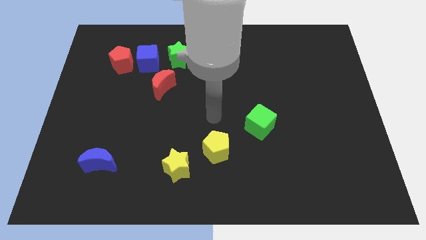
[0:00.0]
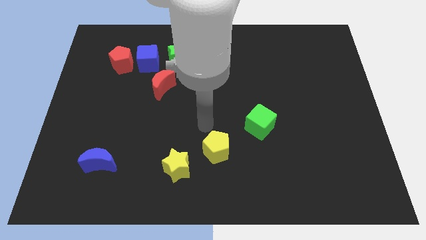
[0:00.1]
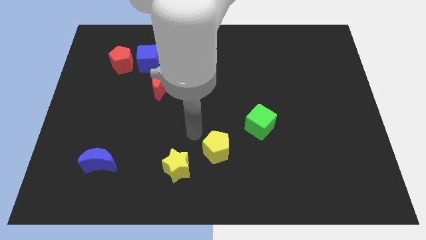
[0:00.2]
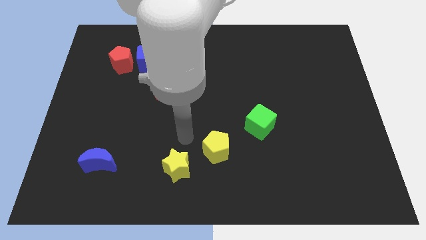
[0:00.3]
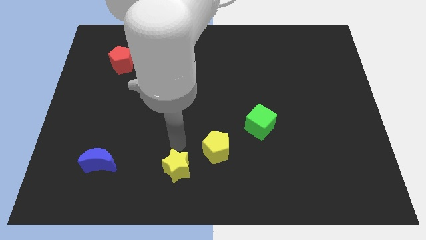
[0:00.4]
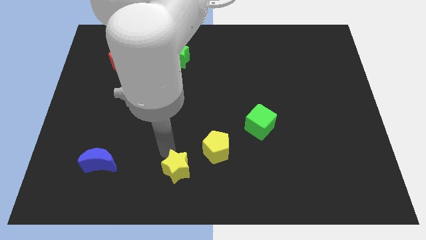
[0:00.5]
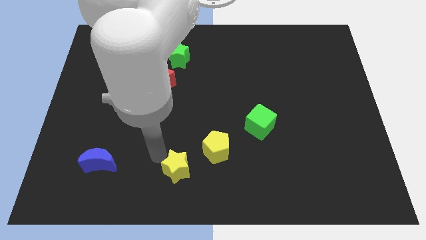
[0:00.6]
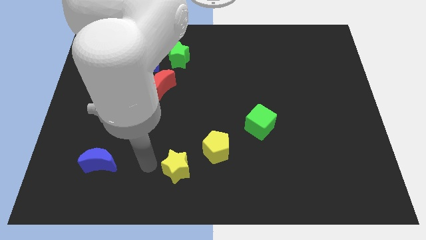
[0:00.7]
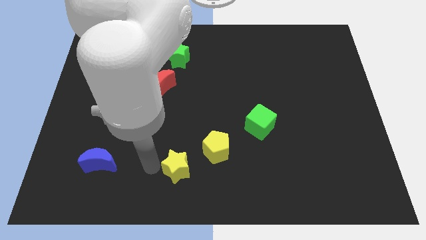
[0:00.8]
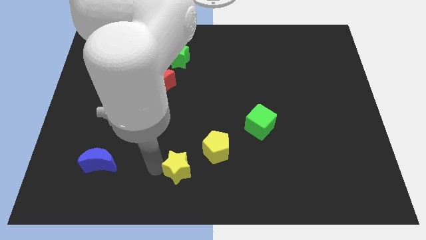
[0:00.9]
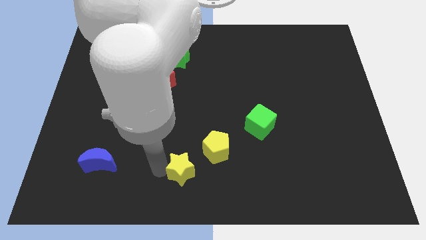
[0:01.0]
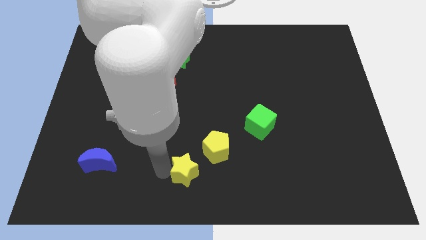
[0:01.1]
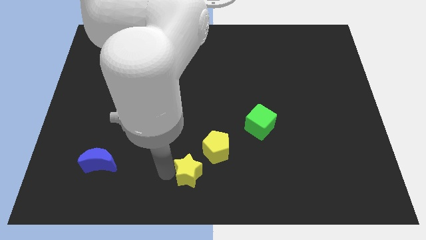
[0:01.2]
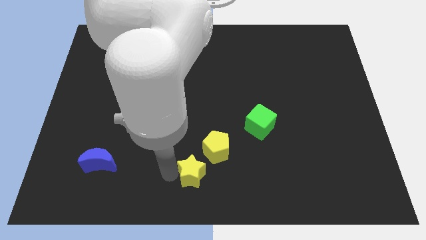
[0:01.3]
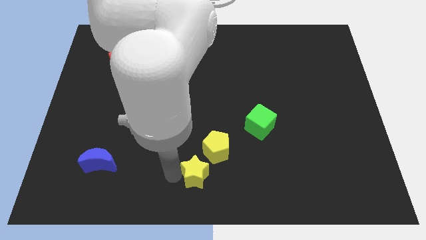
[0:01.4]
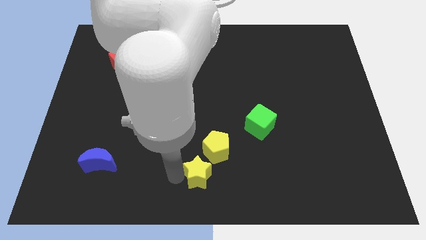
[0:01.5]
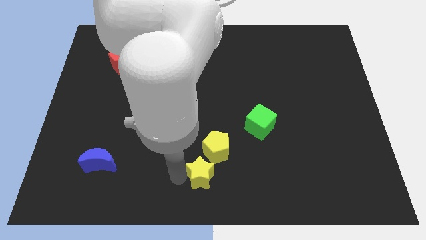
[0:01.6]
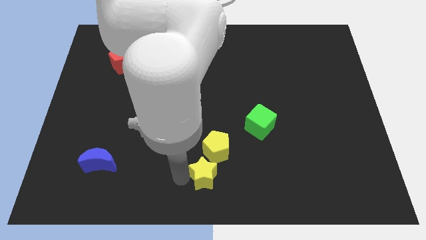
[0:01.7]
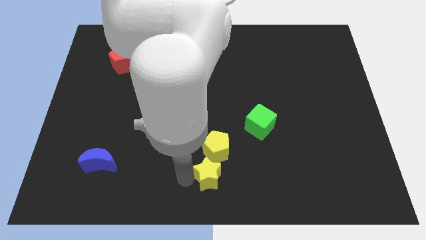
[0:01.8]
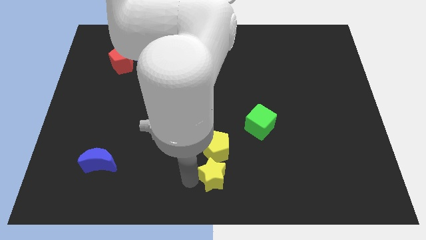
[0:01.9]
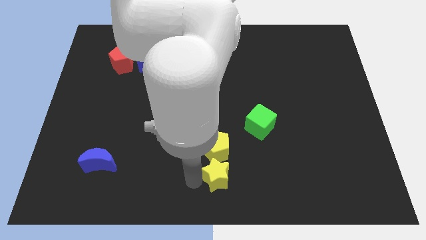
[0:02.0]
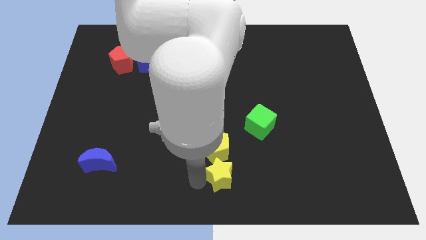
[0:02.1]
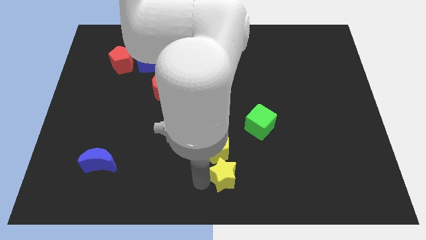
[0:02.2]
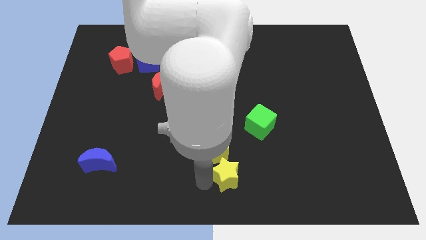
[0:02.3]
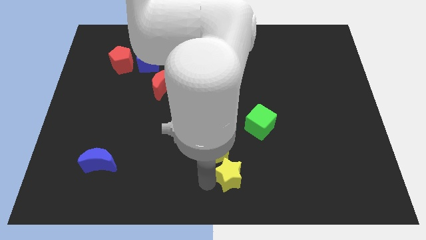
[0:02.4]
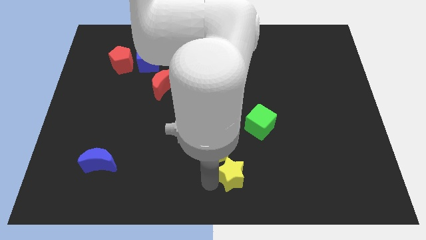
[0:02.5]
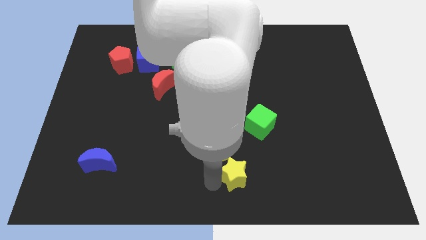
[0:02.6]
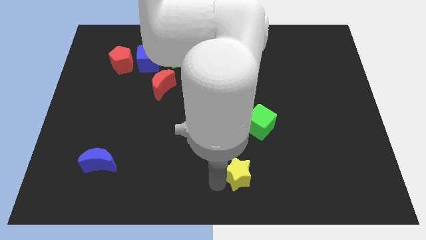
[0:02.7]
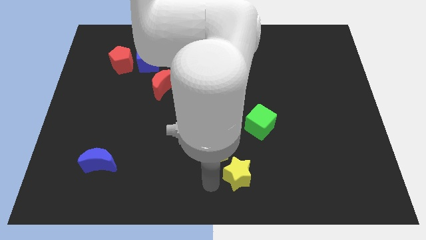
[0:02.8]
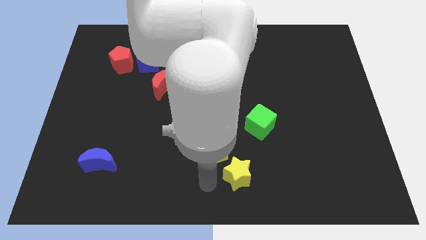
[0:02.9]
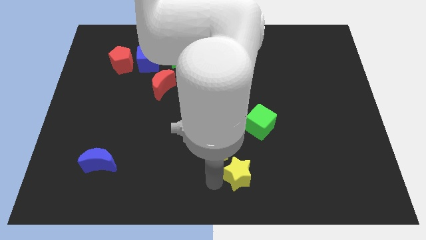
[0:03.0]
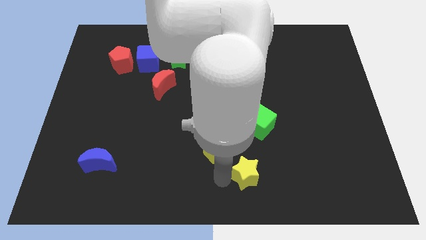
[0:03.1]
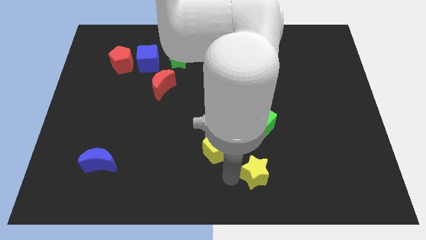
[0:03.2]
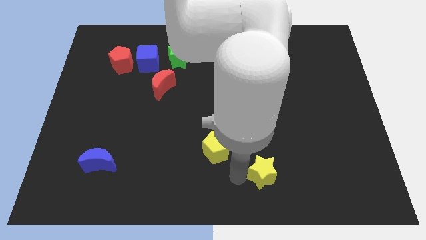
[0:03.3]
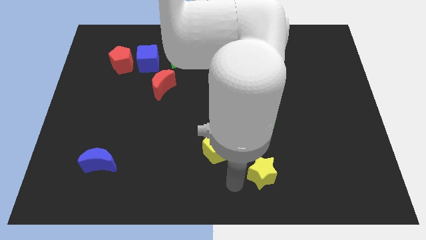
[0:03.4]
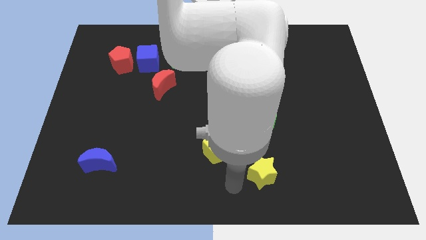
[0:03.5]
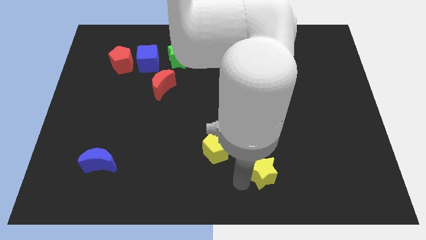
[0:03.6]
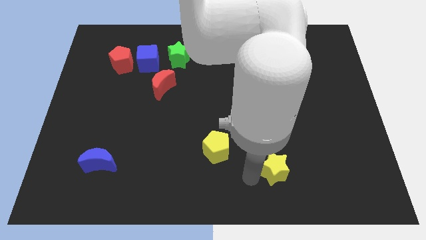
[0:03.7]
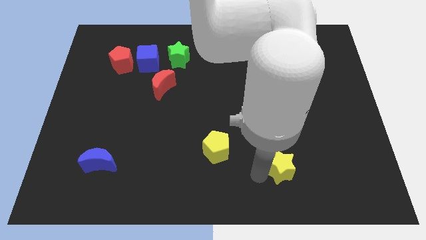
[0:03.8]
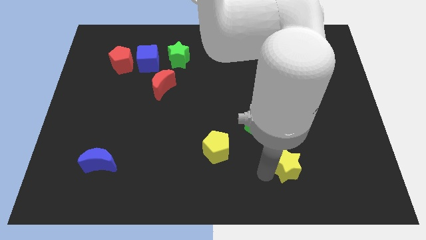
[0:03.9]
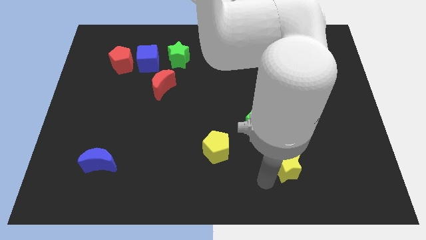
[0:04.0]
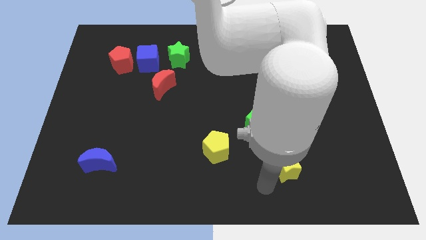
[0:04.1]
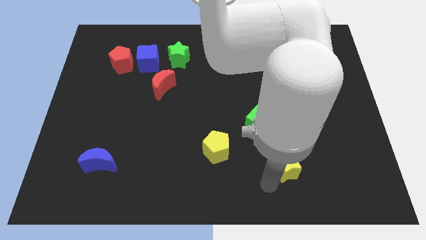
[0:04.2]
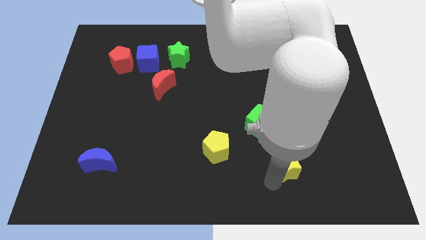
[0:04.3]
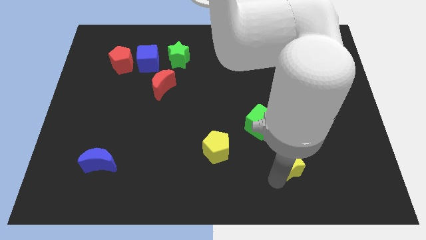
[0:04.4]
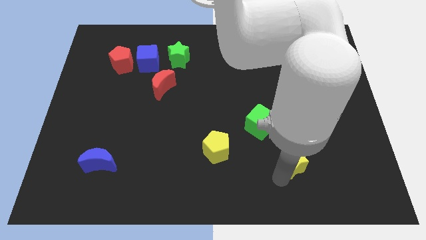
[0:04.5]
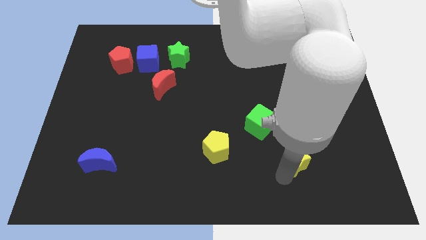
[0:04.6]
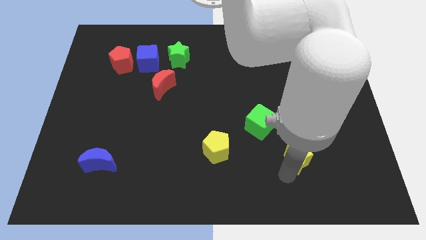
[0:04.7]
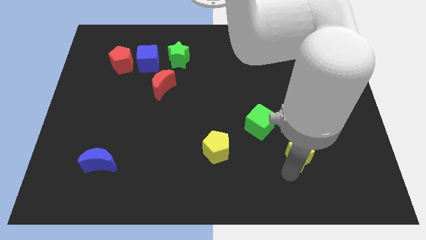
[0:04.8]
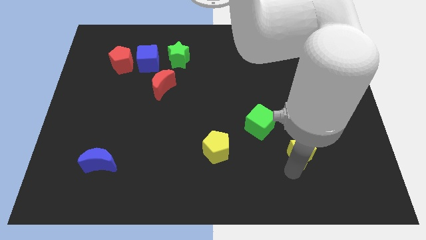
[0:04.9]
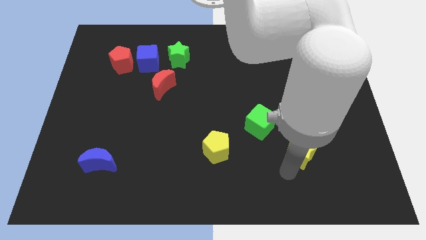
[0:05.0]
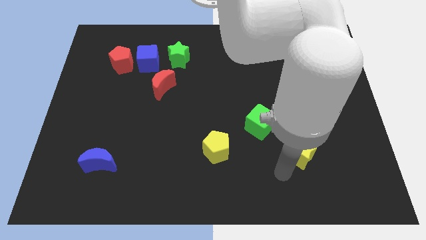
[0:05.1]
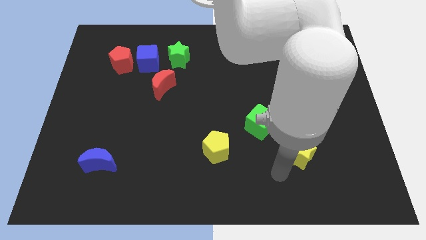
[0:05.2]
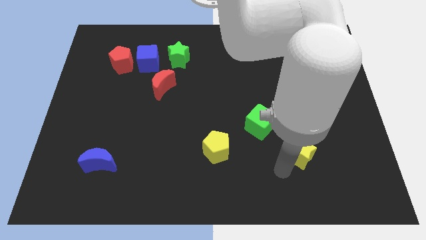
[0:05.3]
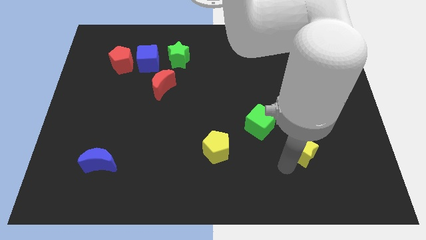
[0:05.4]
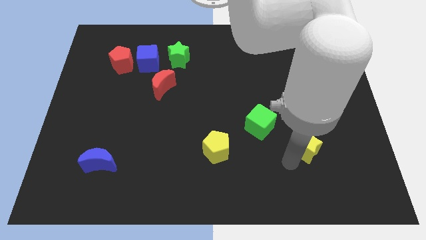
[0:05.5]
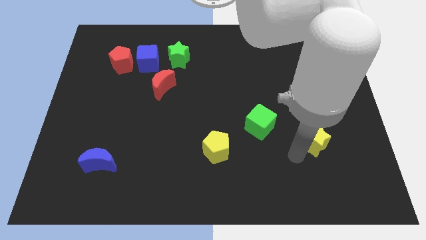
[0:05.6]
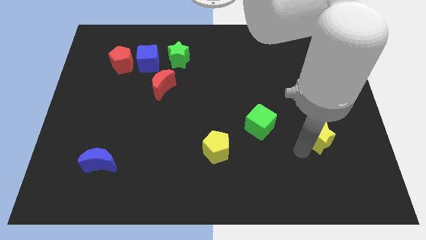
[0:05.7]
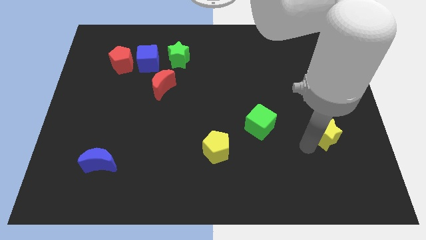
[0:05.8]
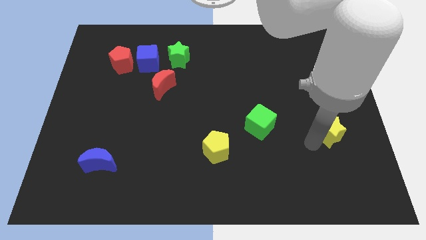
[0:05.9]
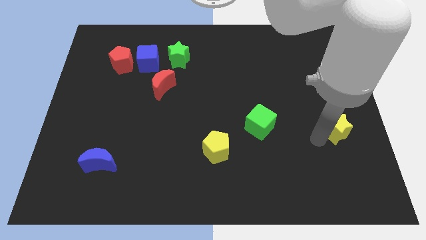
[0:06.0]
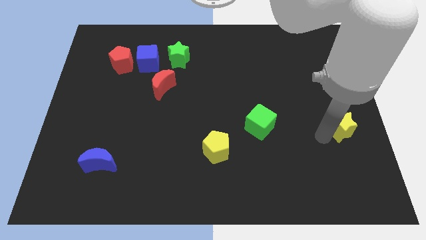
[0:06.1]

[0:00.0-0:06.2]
put the yellow star to the center right

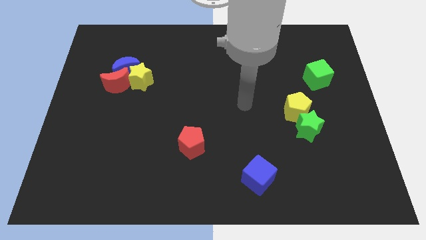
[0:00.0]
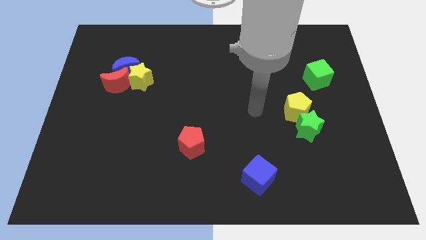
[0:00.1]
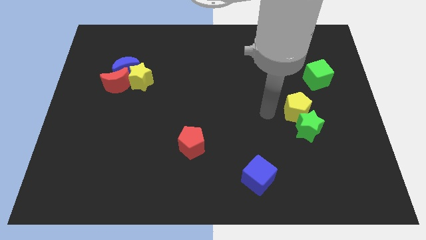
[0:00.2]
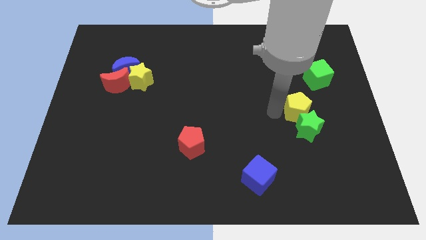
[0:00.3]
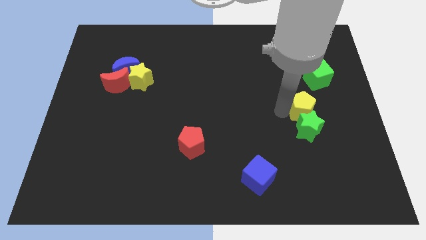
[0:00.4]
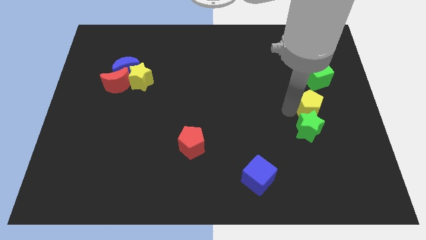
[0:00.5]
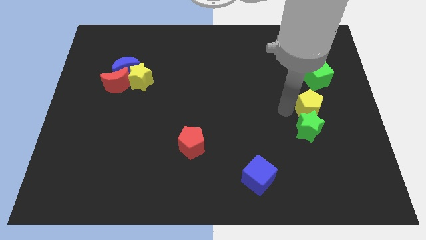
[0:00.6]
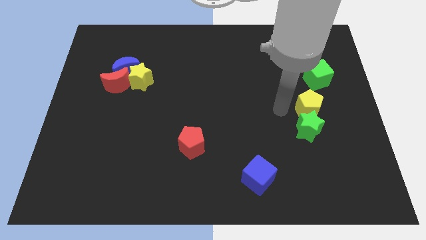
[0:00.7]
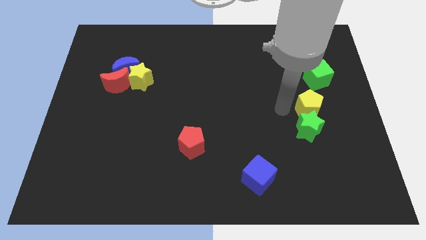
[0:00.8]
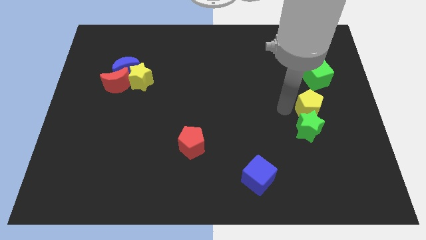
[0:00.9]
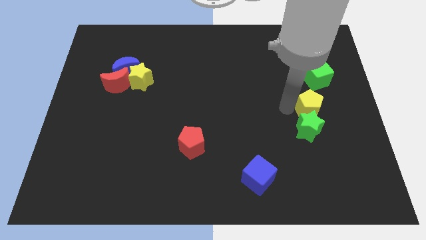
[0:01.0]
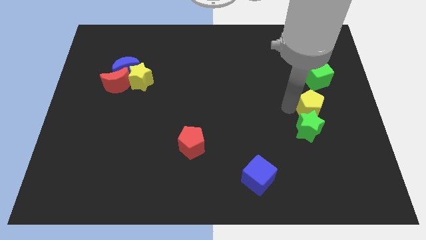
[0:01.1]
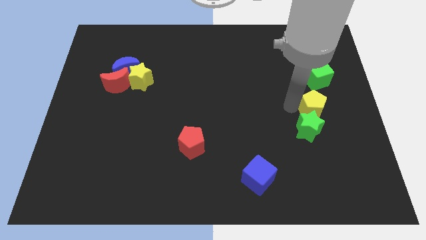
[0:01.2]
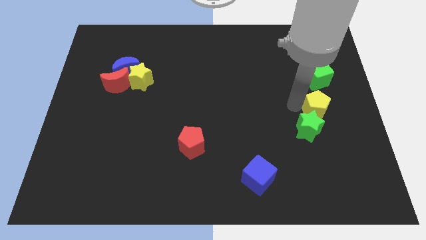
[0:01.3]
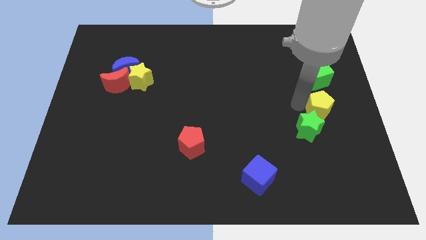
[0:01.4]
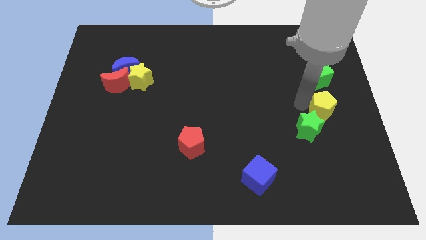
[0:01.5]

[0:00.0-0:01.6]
move the yellow pentagon to the right side
